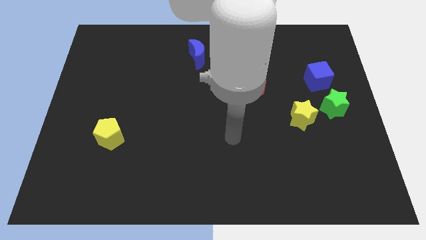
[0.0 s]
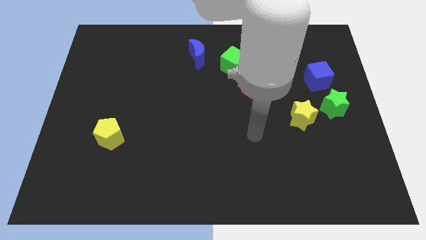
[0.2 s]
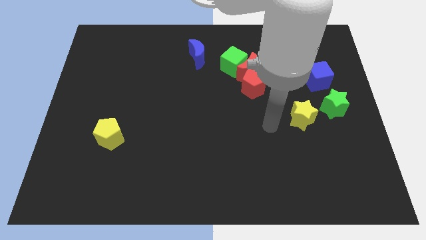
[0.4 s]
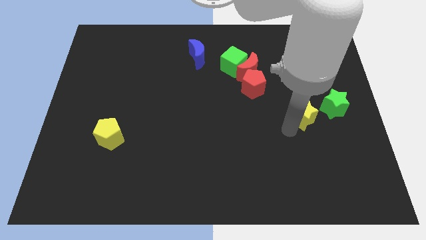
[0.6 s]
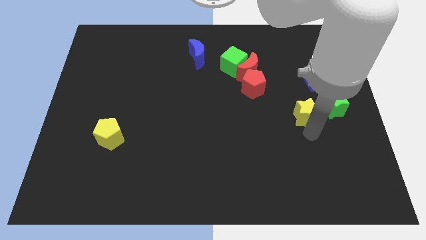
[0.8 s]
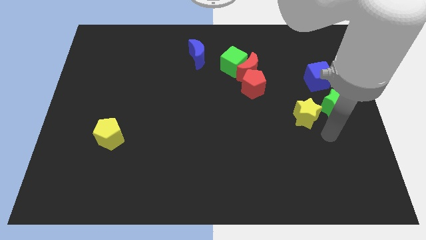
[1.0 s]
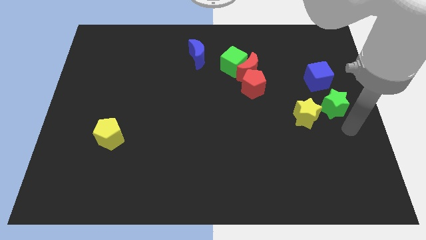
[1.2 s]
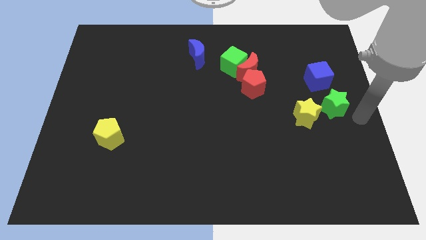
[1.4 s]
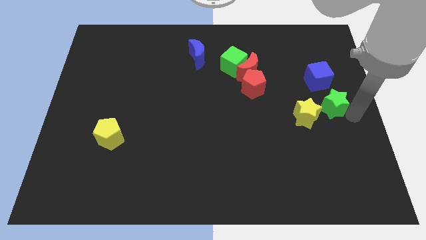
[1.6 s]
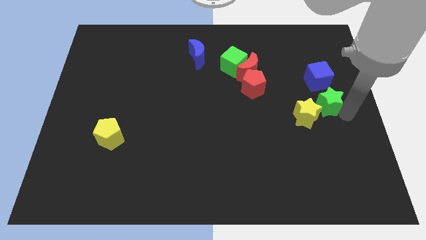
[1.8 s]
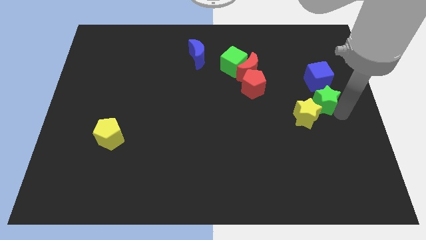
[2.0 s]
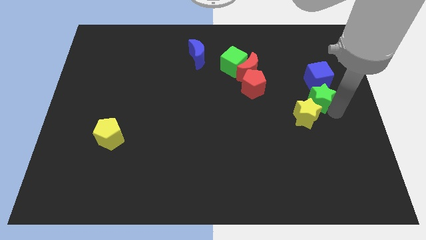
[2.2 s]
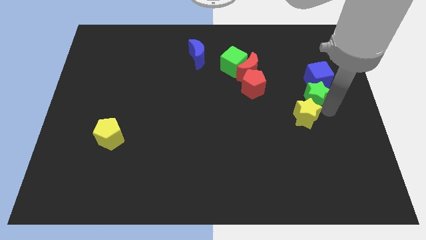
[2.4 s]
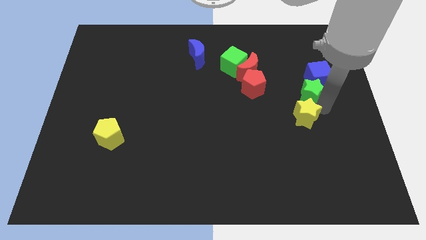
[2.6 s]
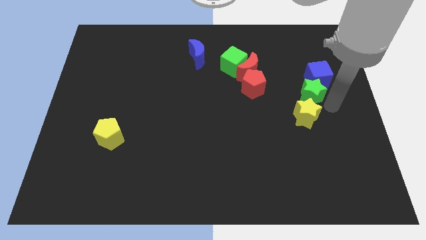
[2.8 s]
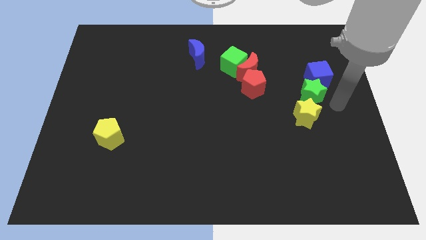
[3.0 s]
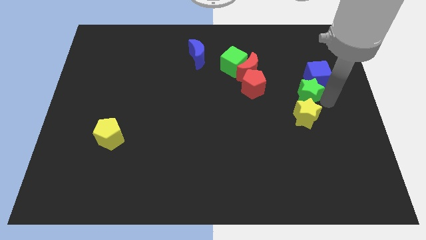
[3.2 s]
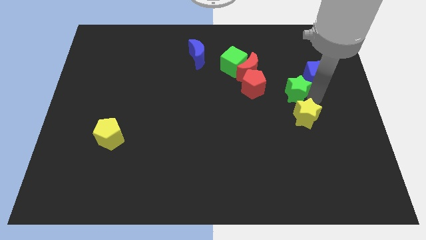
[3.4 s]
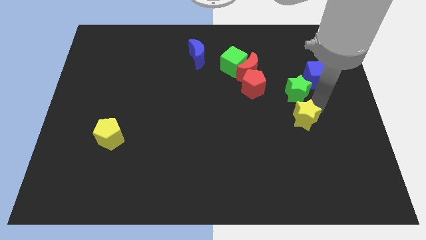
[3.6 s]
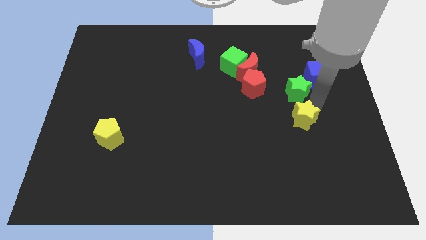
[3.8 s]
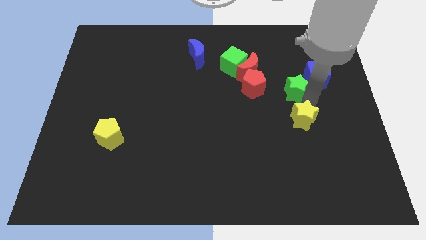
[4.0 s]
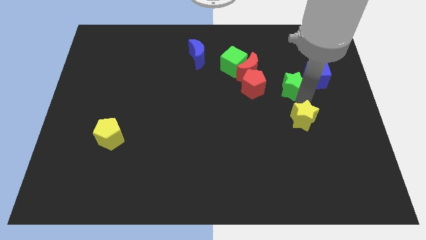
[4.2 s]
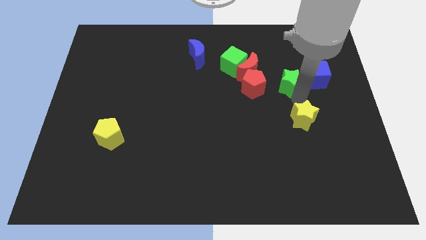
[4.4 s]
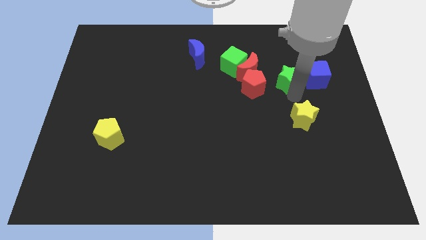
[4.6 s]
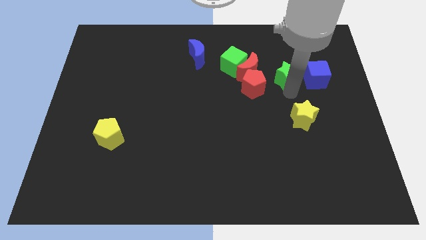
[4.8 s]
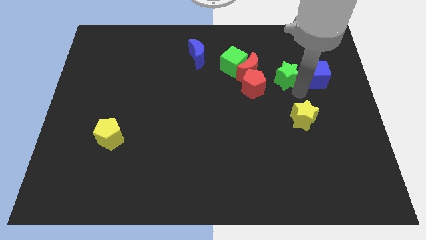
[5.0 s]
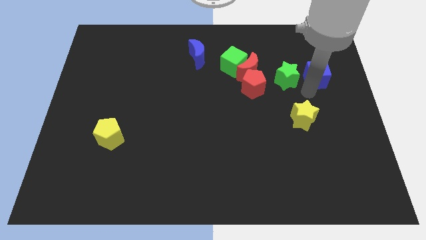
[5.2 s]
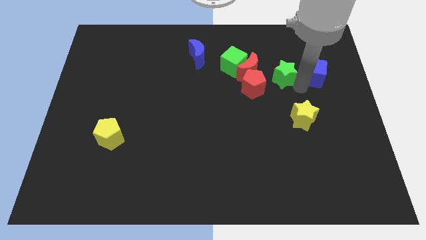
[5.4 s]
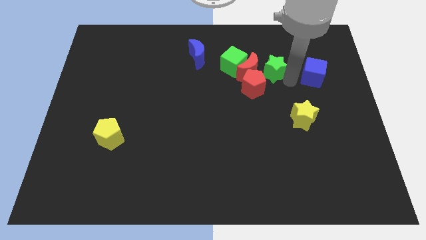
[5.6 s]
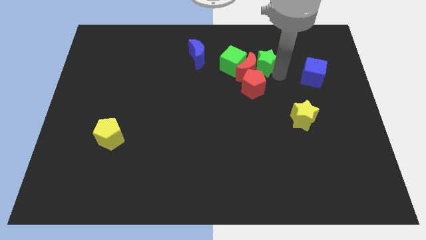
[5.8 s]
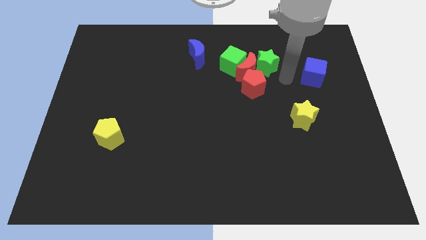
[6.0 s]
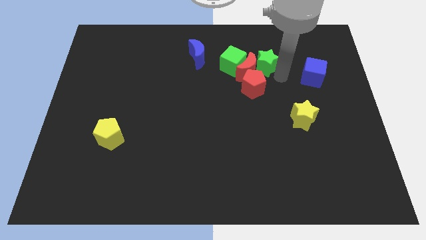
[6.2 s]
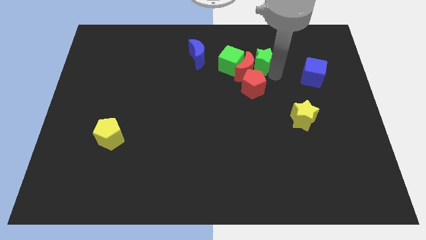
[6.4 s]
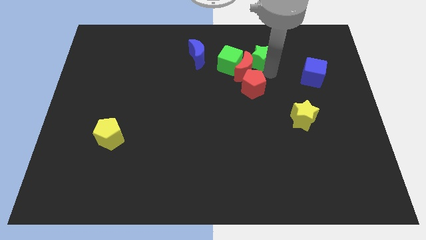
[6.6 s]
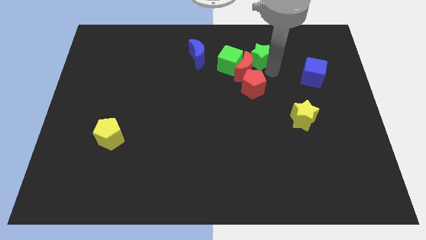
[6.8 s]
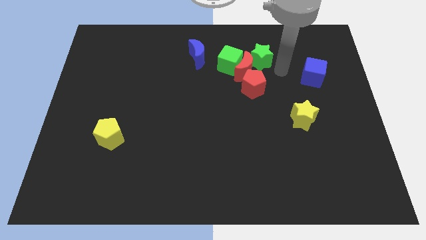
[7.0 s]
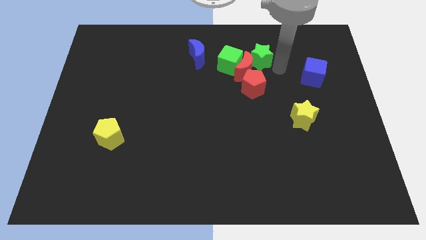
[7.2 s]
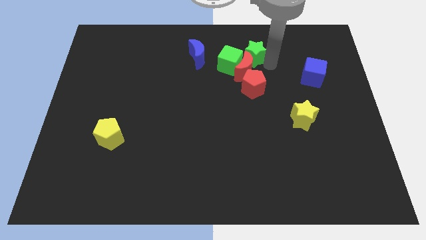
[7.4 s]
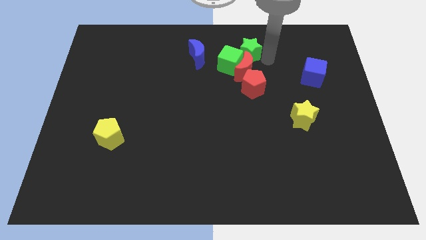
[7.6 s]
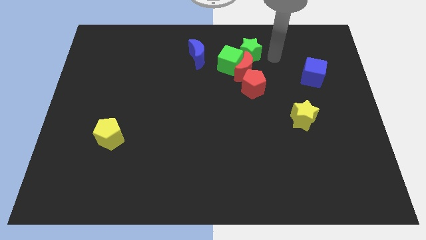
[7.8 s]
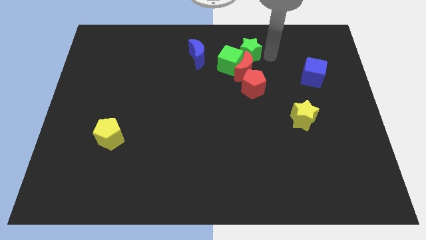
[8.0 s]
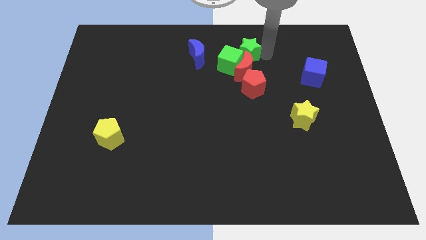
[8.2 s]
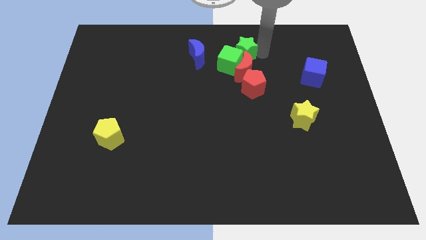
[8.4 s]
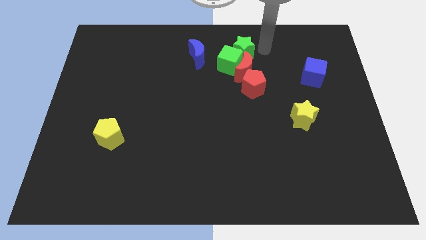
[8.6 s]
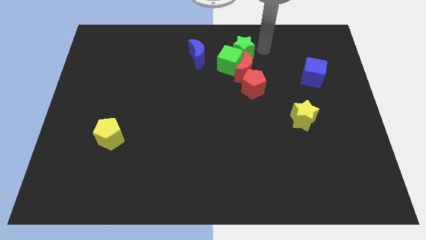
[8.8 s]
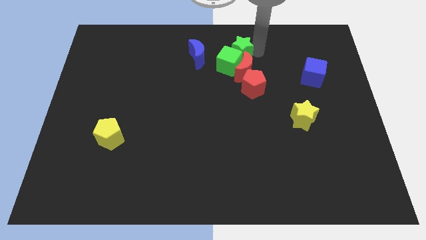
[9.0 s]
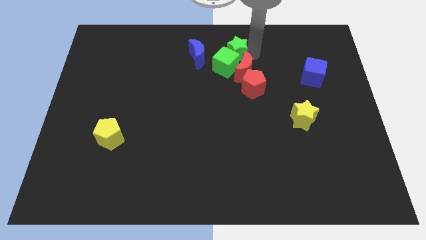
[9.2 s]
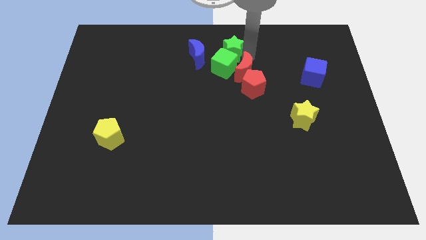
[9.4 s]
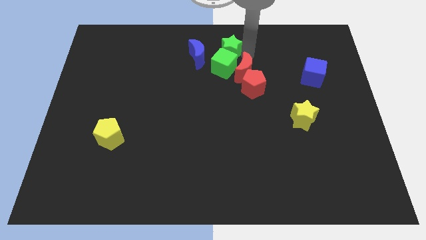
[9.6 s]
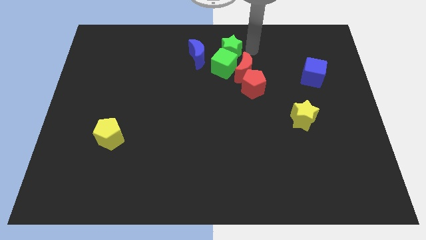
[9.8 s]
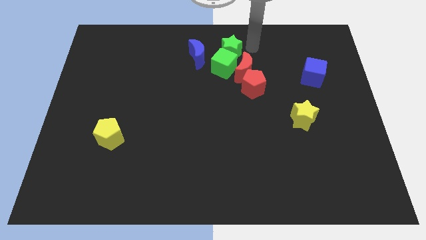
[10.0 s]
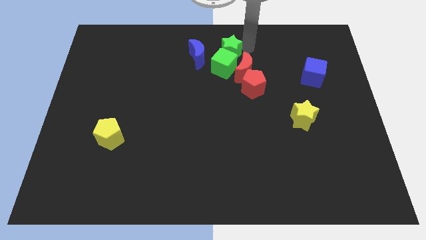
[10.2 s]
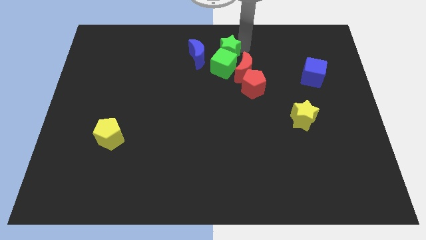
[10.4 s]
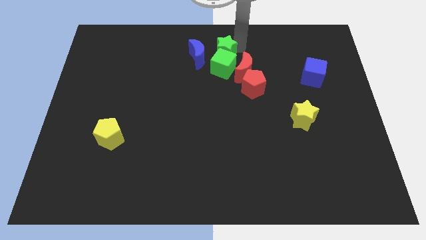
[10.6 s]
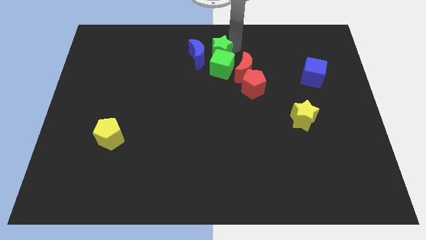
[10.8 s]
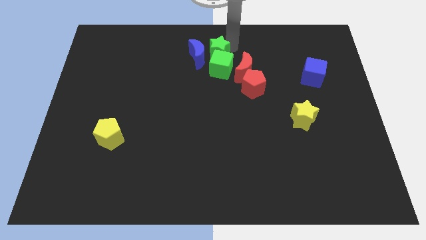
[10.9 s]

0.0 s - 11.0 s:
move the green star next to the blue moon

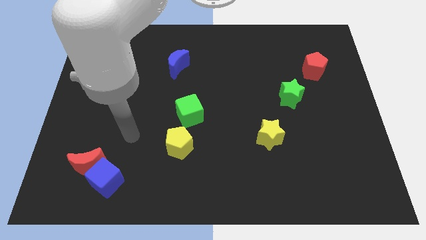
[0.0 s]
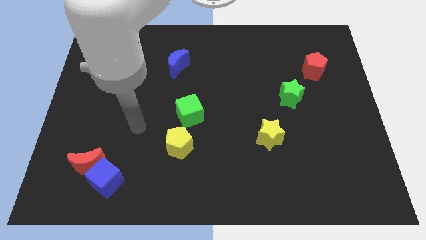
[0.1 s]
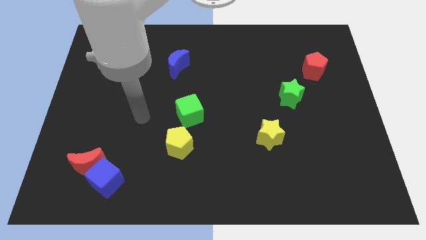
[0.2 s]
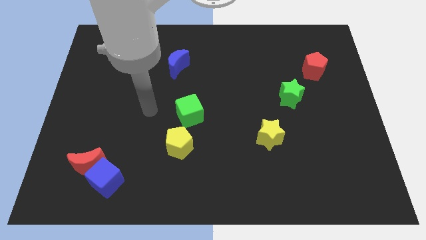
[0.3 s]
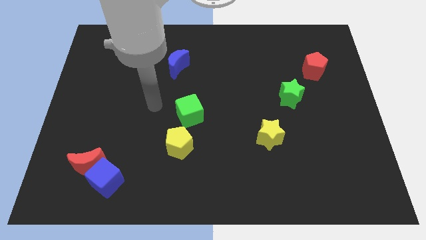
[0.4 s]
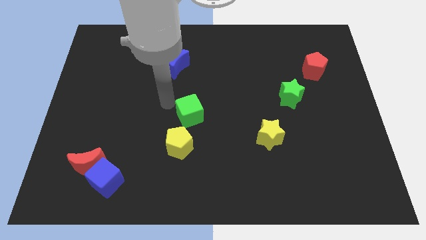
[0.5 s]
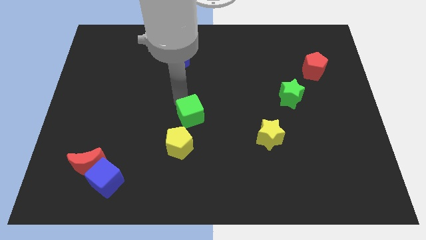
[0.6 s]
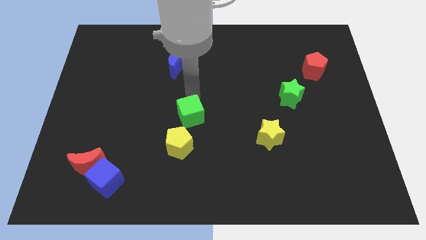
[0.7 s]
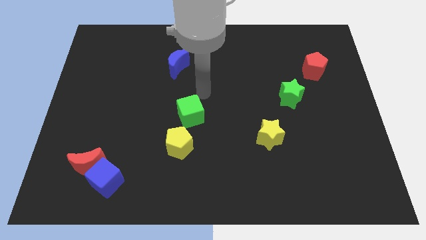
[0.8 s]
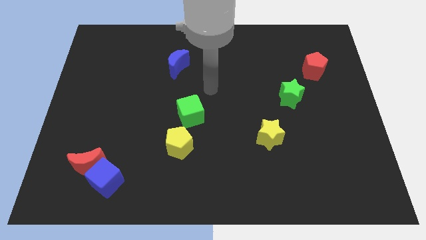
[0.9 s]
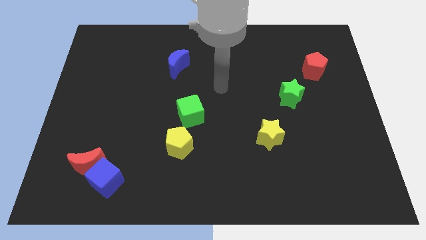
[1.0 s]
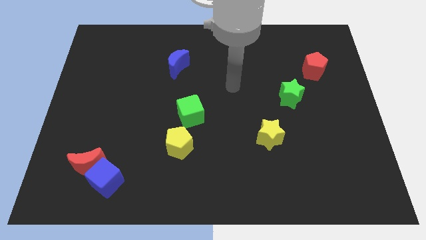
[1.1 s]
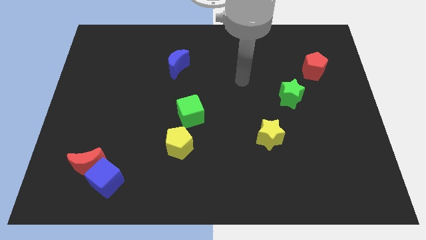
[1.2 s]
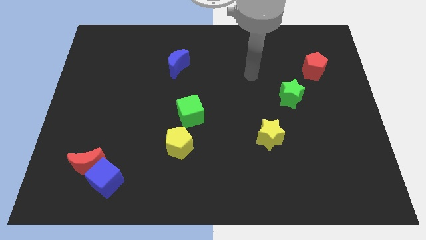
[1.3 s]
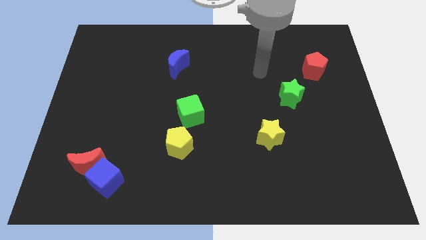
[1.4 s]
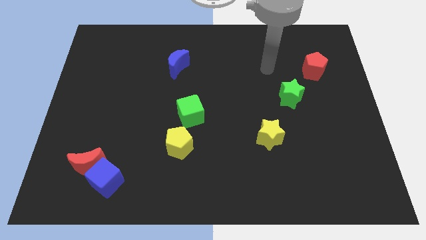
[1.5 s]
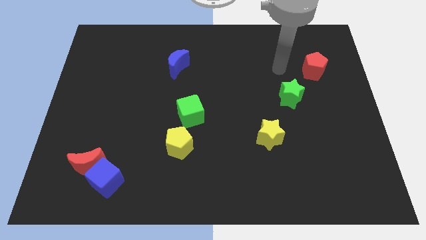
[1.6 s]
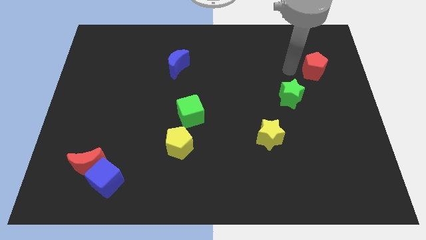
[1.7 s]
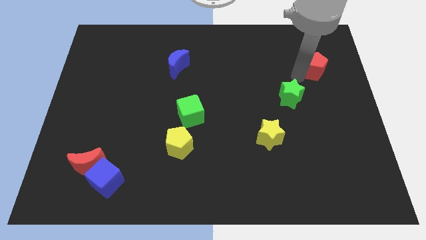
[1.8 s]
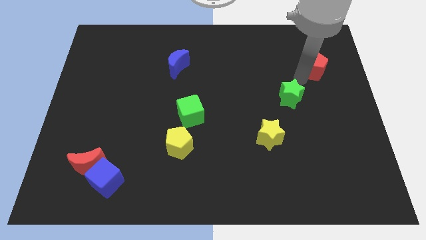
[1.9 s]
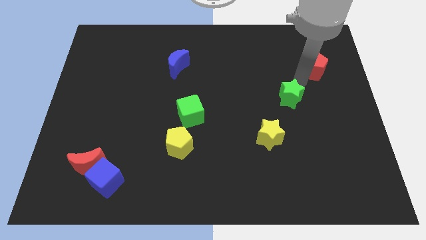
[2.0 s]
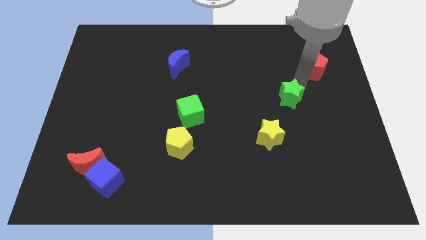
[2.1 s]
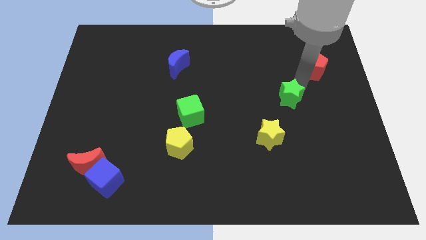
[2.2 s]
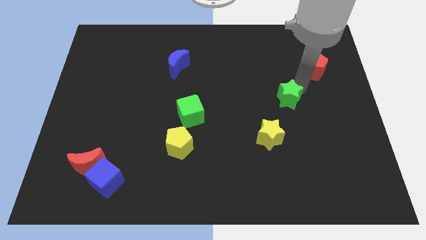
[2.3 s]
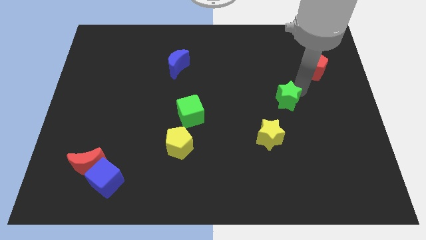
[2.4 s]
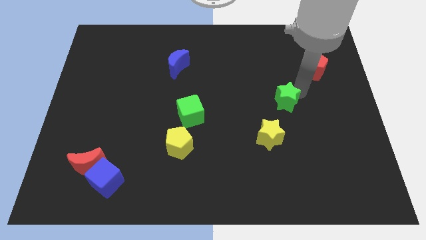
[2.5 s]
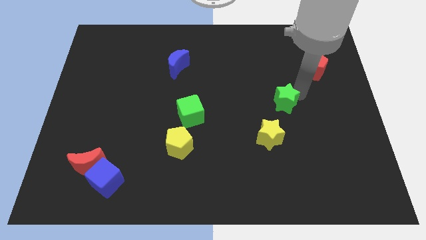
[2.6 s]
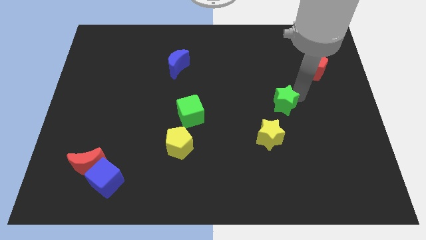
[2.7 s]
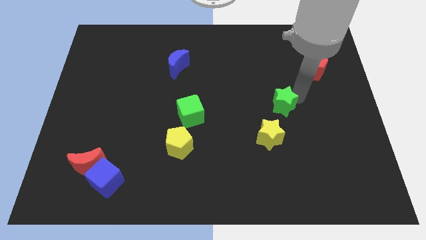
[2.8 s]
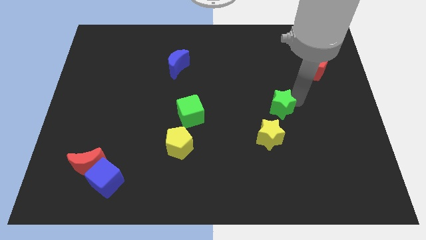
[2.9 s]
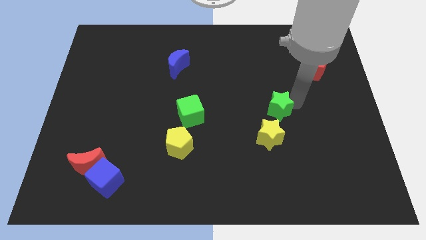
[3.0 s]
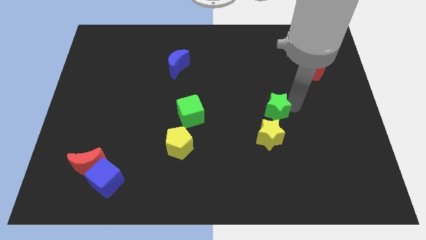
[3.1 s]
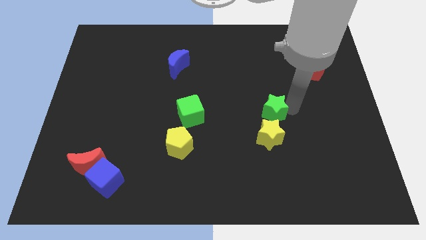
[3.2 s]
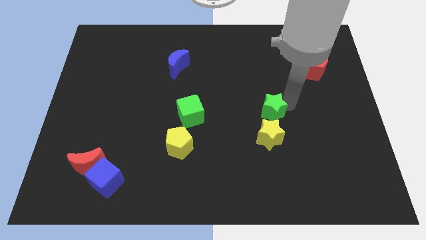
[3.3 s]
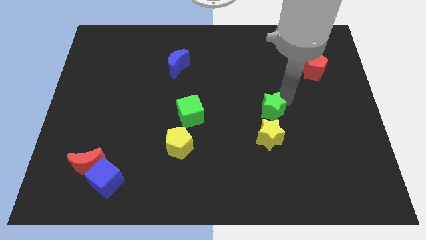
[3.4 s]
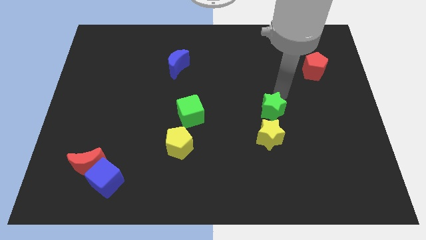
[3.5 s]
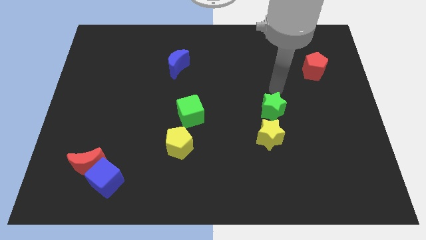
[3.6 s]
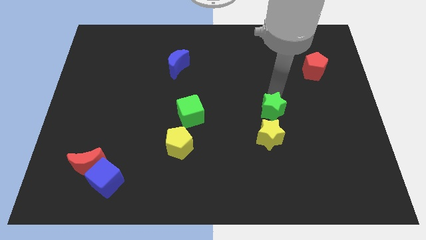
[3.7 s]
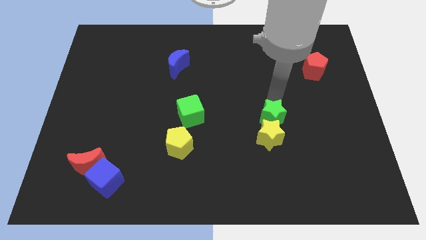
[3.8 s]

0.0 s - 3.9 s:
slide the green star close to the yellow star
